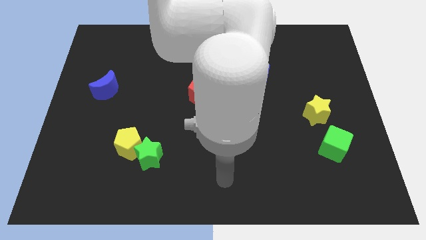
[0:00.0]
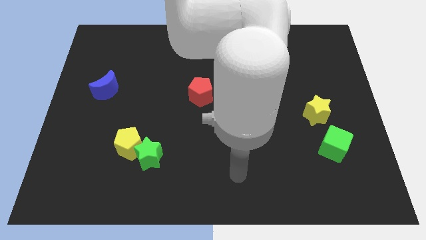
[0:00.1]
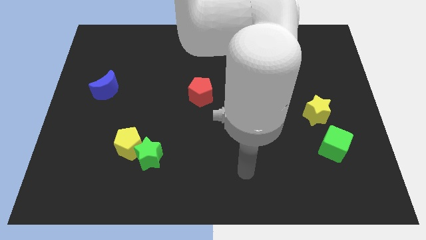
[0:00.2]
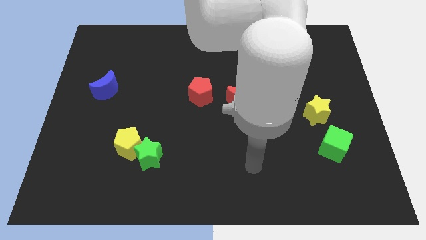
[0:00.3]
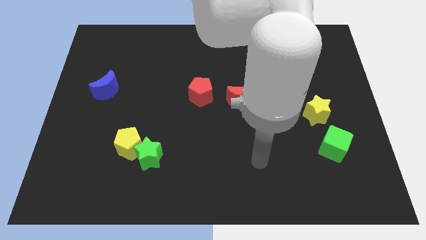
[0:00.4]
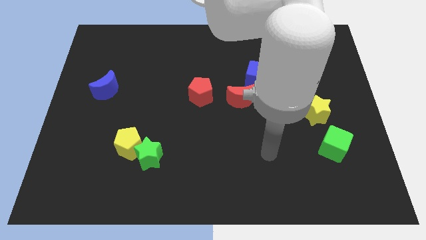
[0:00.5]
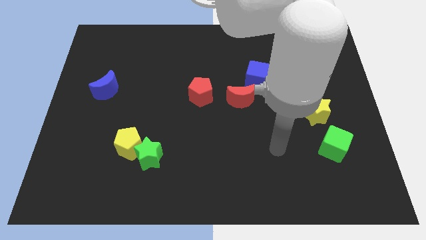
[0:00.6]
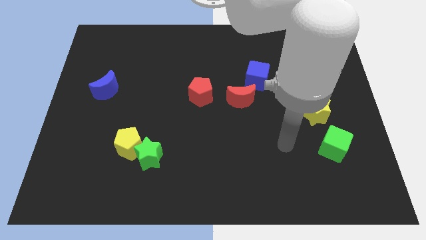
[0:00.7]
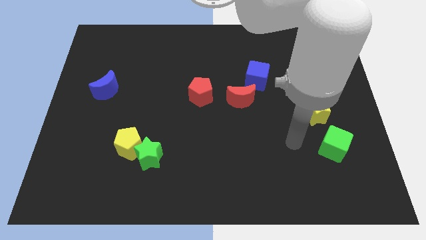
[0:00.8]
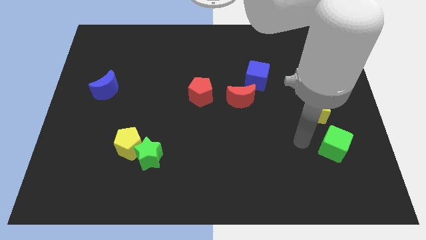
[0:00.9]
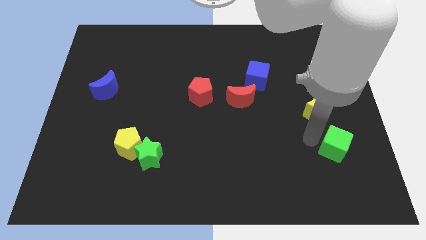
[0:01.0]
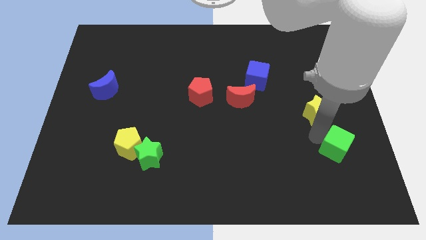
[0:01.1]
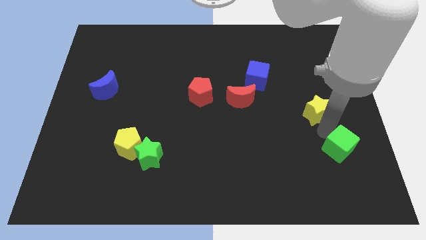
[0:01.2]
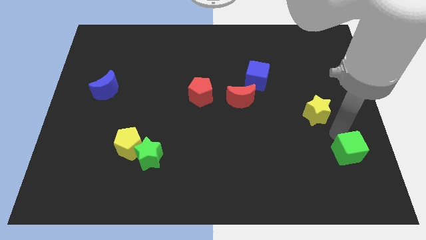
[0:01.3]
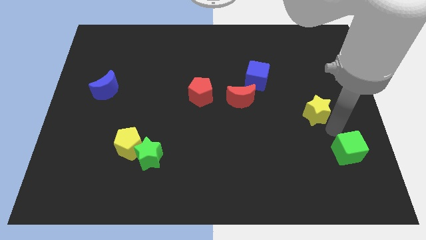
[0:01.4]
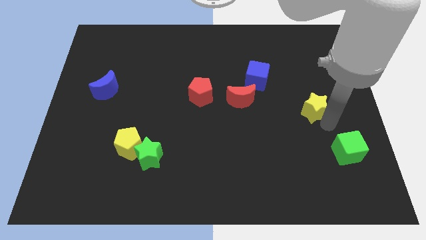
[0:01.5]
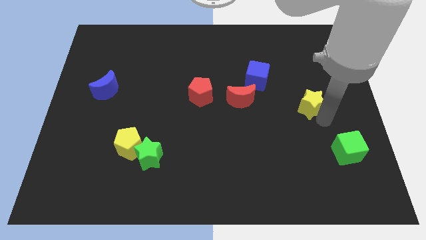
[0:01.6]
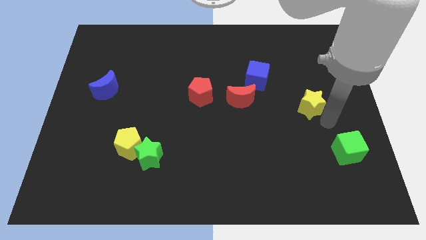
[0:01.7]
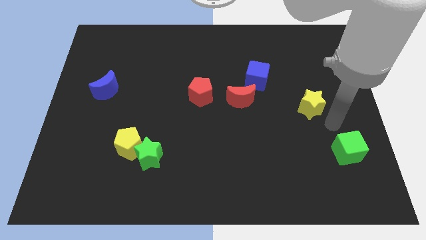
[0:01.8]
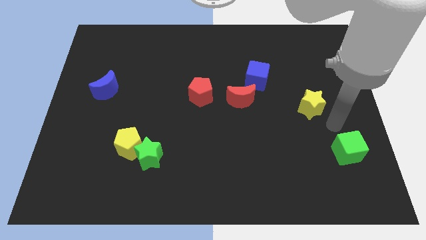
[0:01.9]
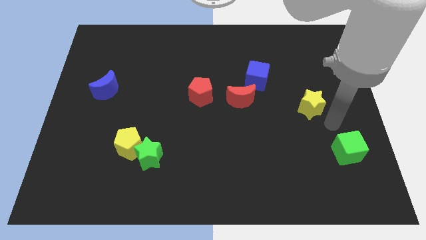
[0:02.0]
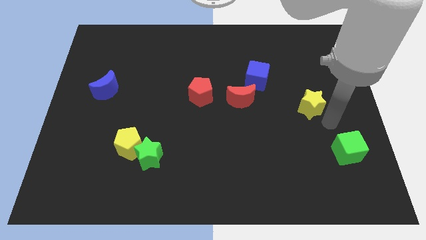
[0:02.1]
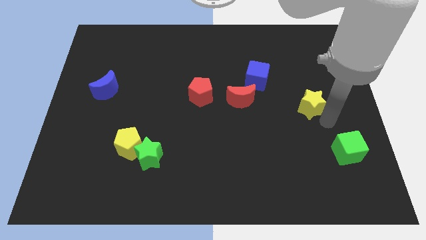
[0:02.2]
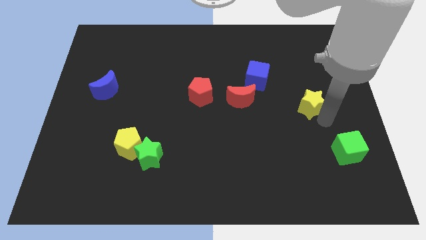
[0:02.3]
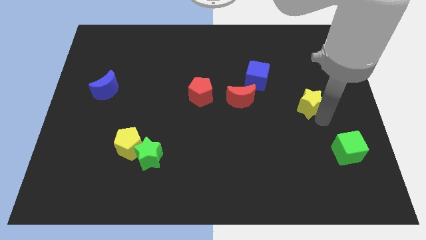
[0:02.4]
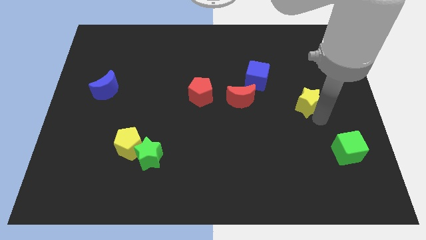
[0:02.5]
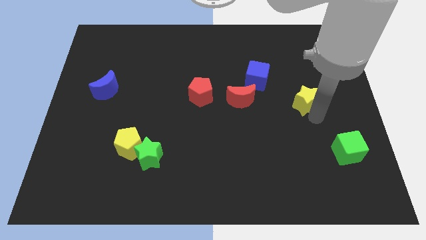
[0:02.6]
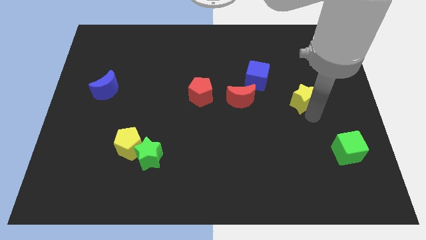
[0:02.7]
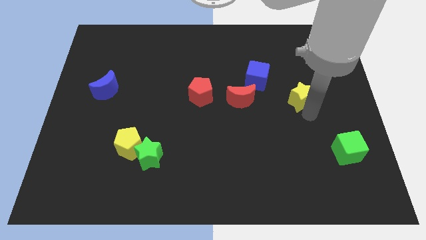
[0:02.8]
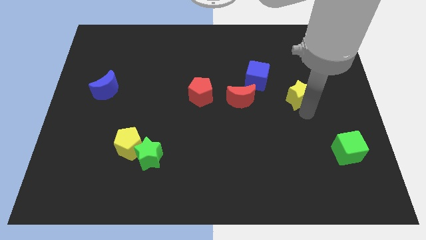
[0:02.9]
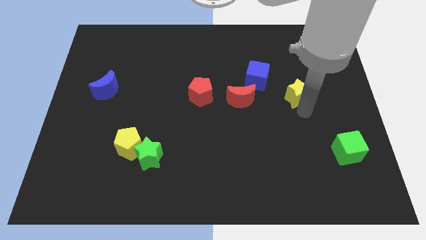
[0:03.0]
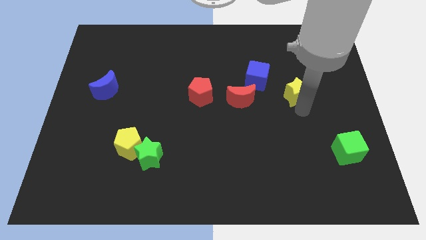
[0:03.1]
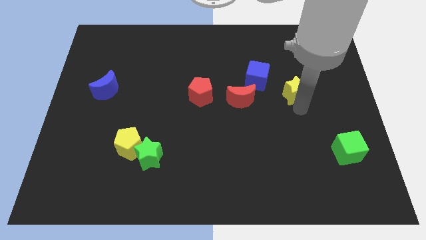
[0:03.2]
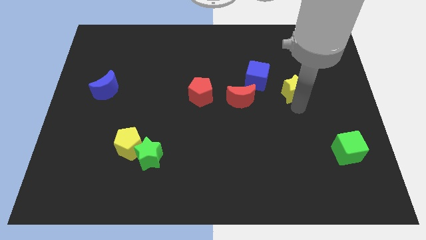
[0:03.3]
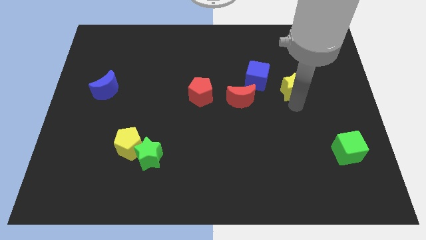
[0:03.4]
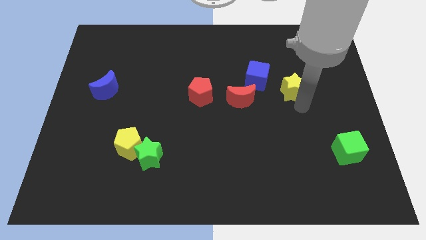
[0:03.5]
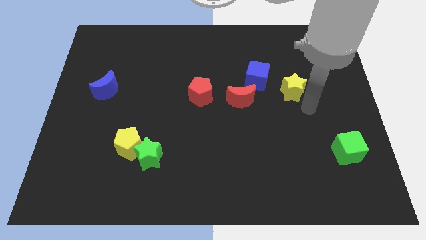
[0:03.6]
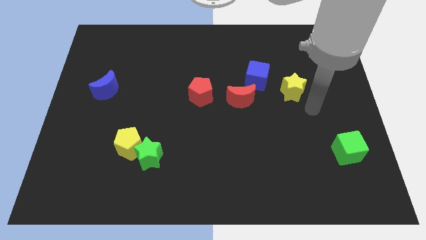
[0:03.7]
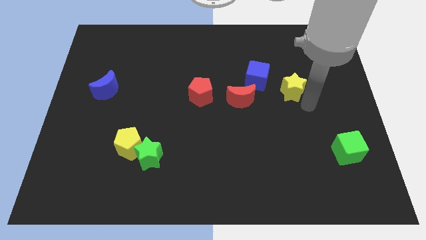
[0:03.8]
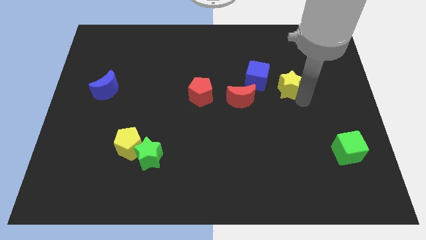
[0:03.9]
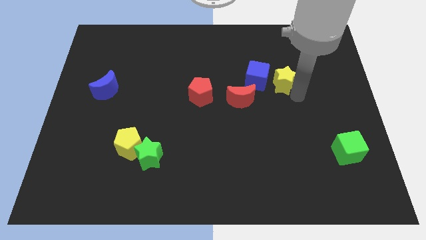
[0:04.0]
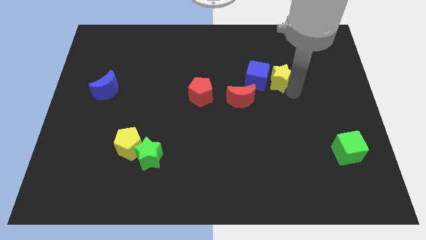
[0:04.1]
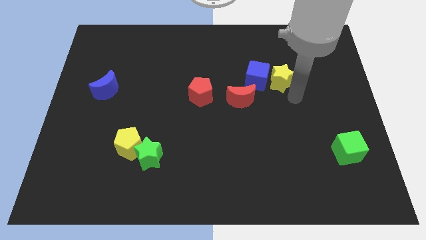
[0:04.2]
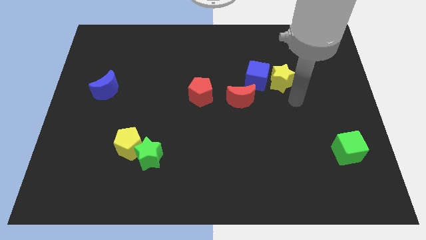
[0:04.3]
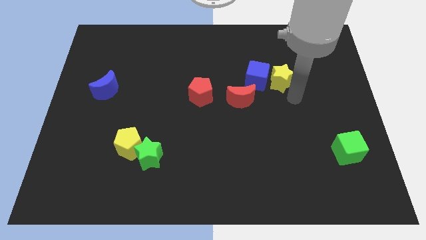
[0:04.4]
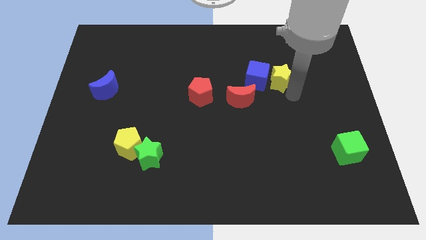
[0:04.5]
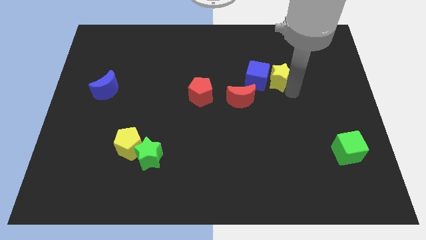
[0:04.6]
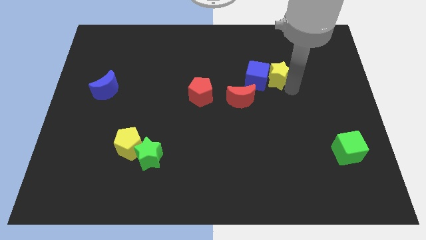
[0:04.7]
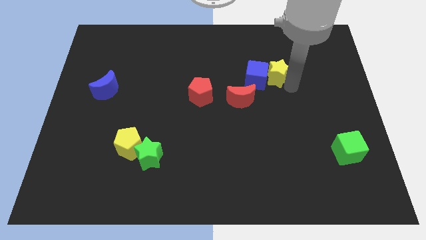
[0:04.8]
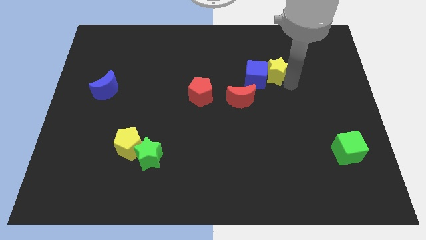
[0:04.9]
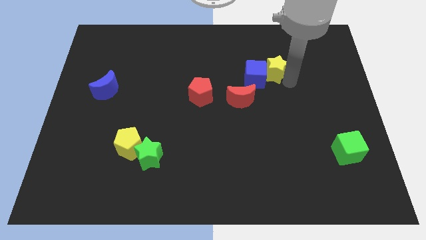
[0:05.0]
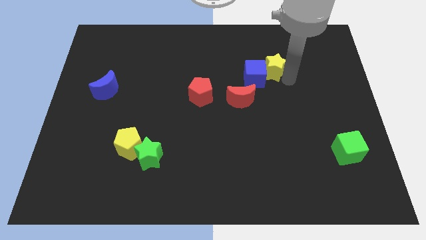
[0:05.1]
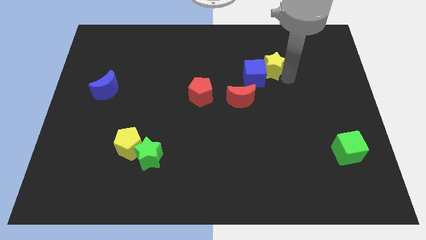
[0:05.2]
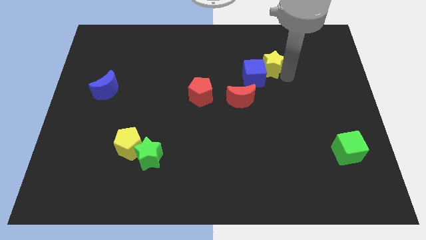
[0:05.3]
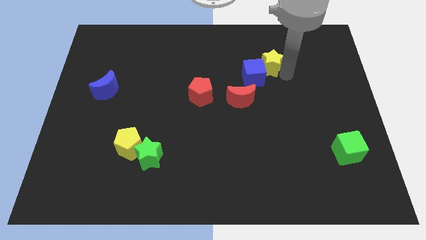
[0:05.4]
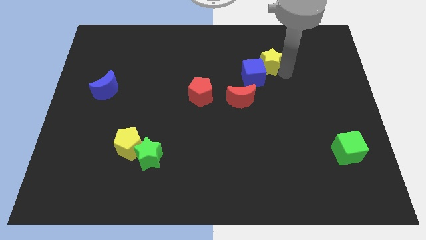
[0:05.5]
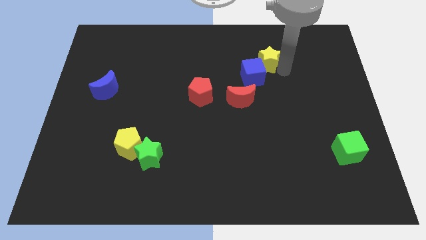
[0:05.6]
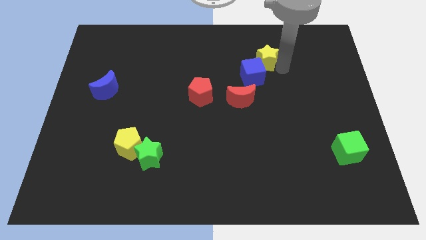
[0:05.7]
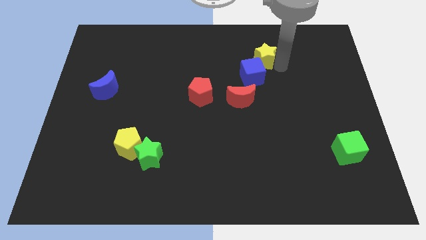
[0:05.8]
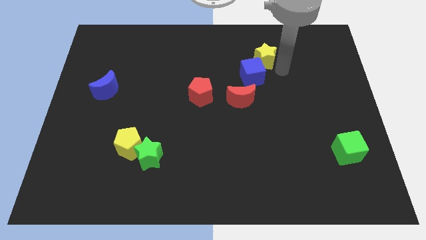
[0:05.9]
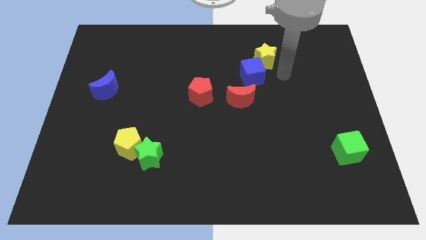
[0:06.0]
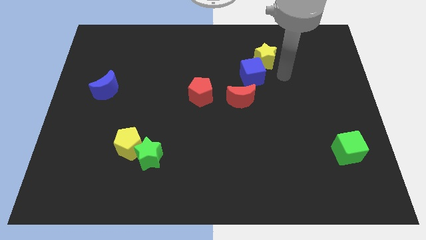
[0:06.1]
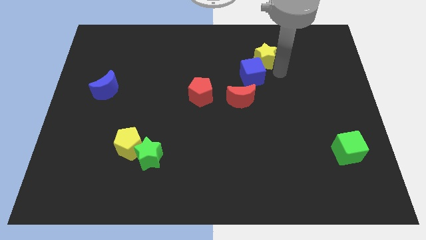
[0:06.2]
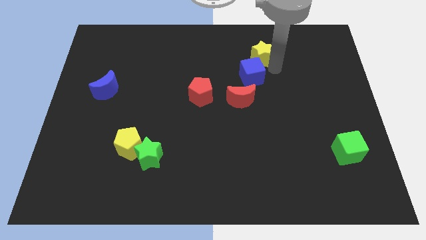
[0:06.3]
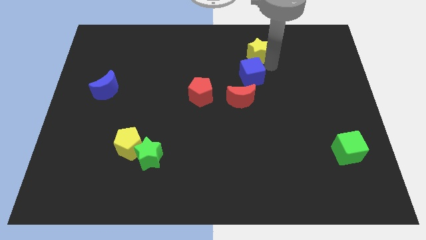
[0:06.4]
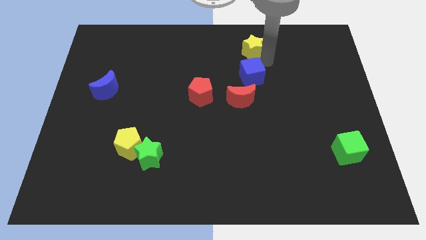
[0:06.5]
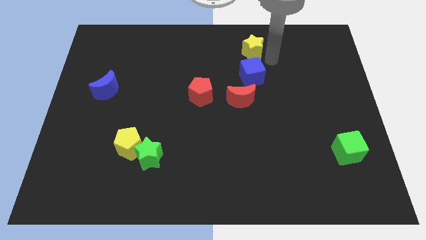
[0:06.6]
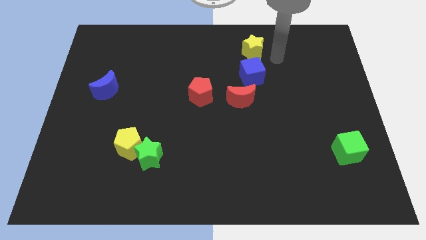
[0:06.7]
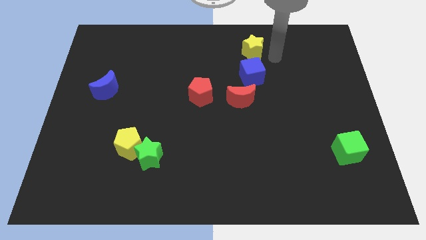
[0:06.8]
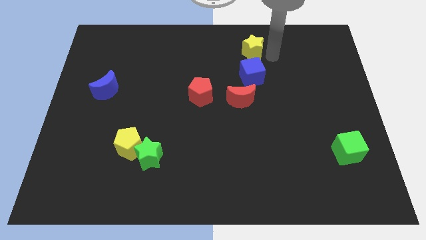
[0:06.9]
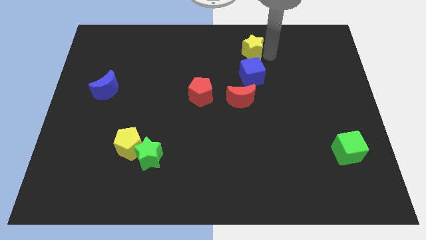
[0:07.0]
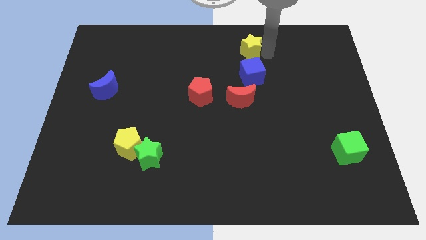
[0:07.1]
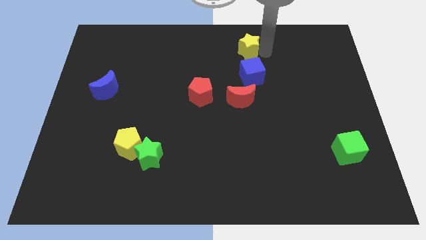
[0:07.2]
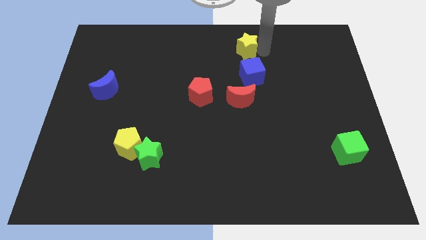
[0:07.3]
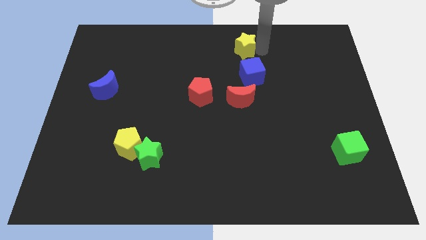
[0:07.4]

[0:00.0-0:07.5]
push the yellow star to the top side
